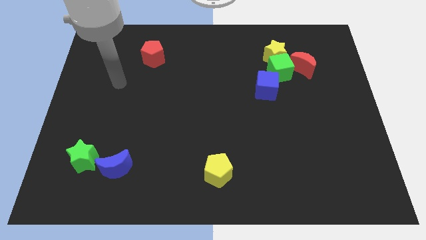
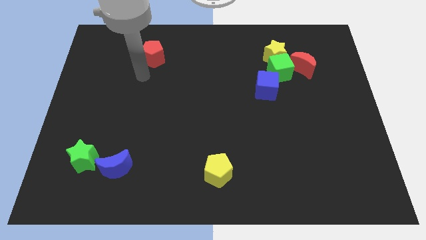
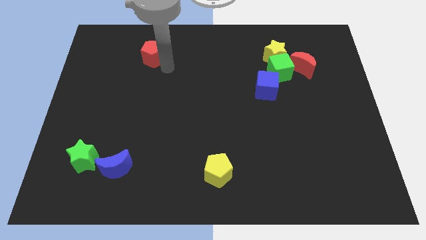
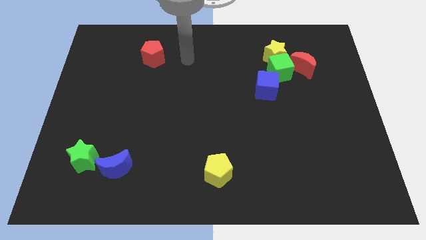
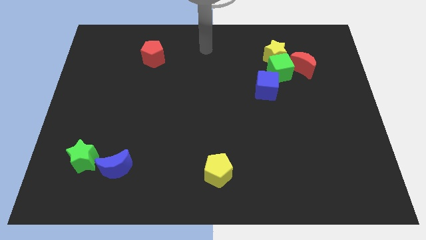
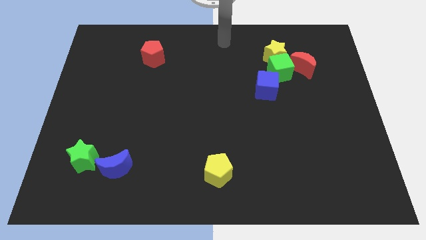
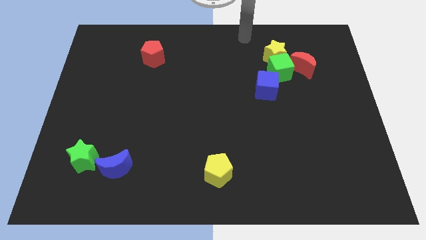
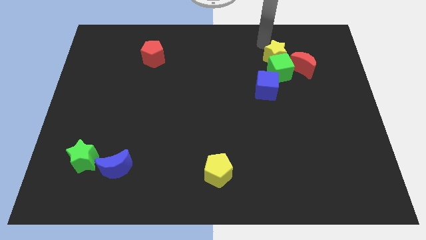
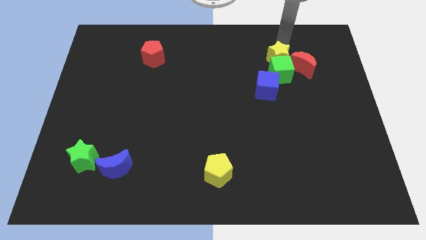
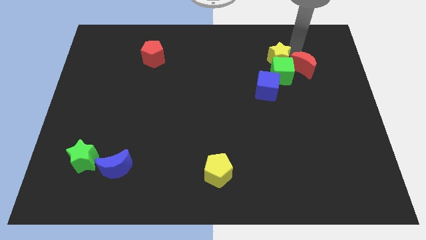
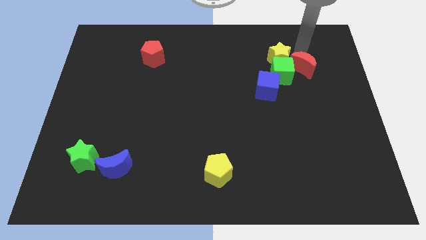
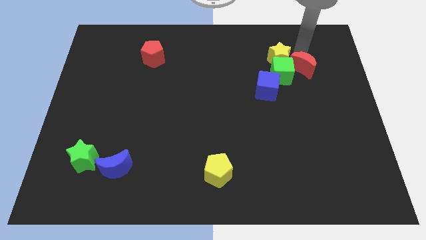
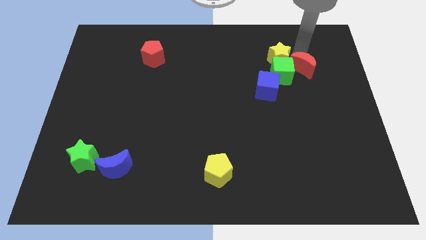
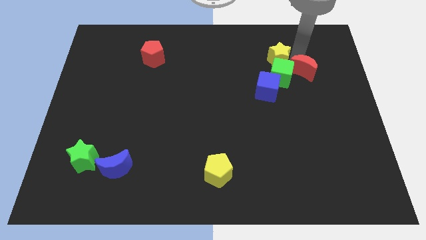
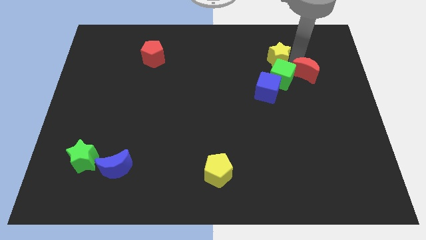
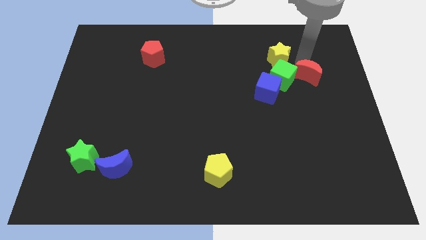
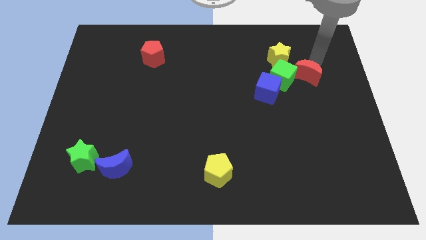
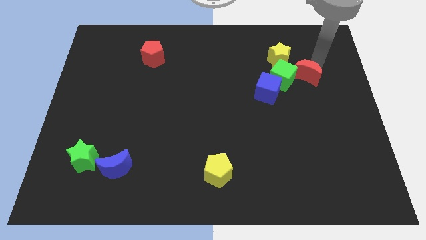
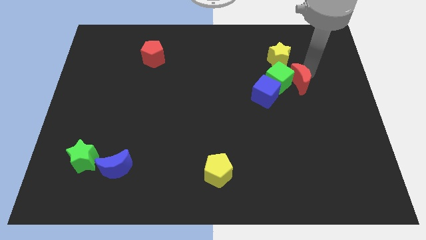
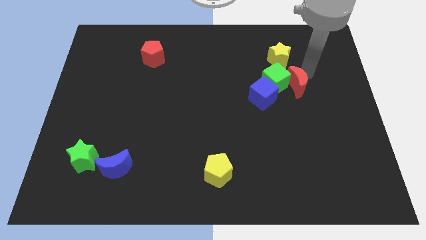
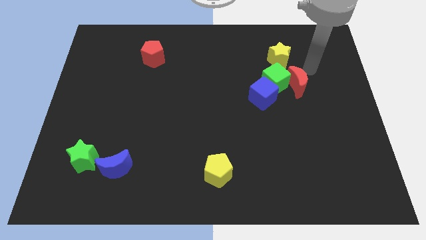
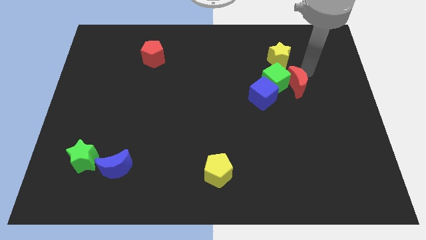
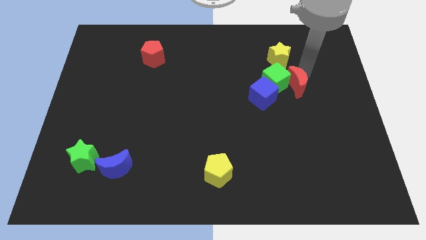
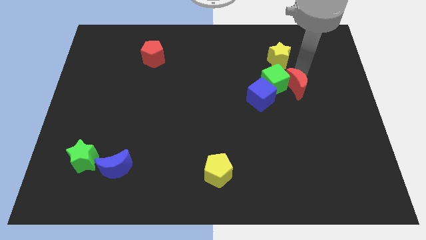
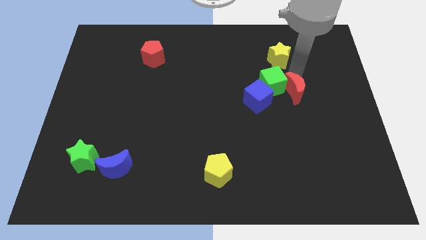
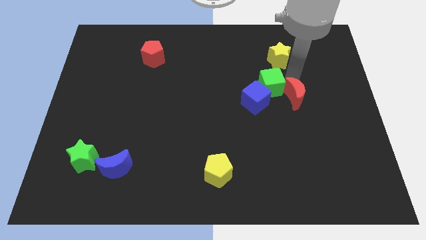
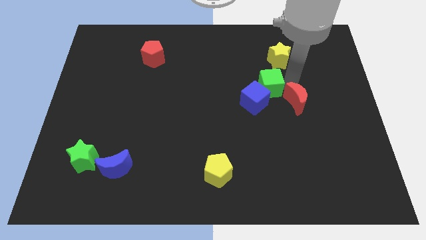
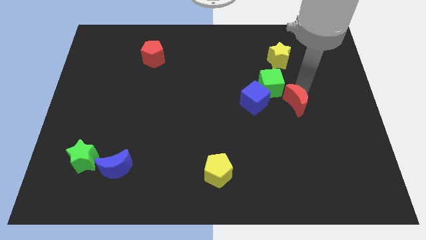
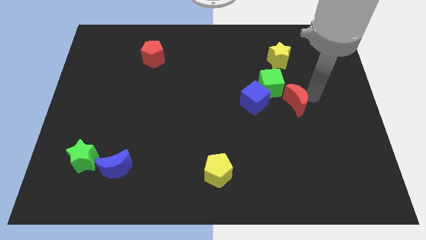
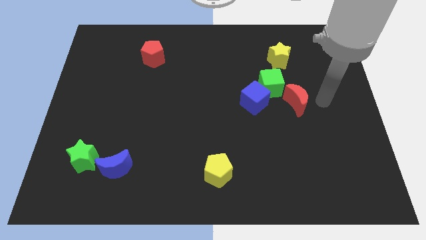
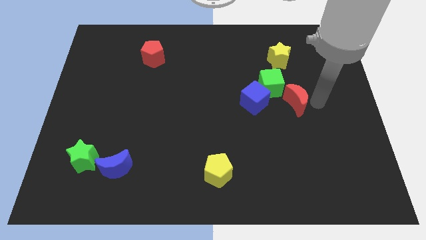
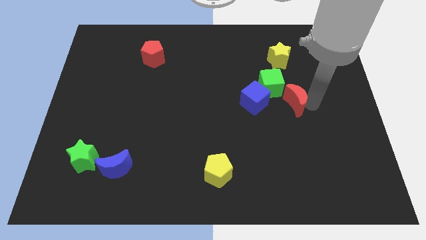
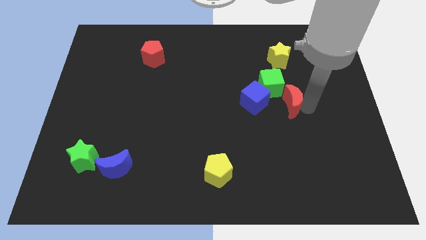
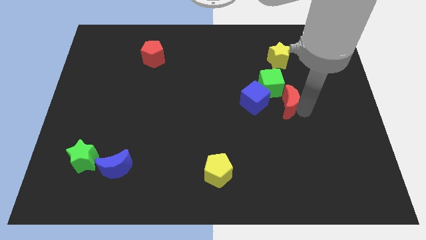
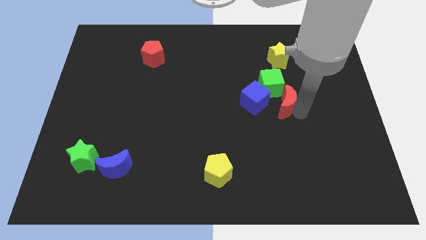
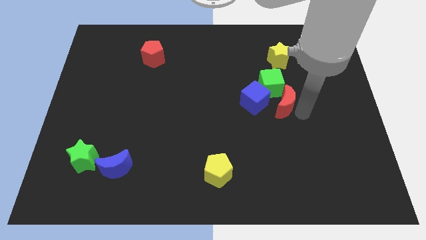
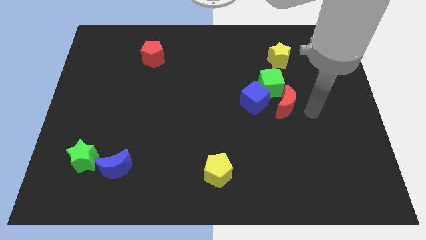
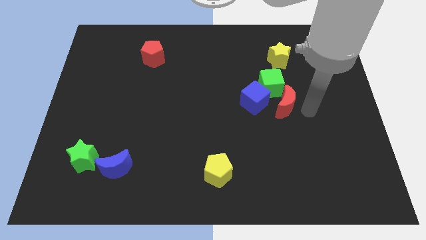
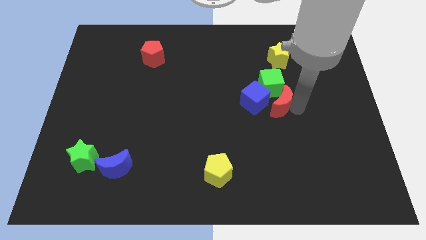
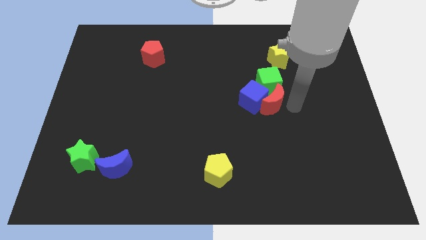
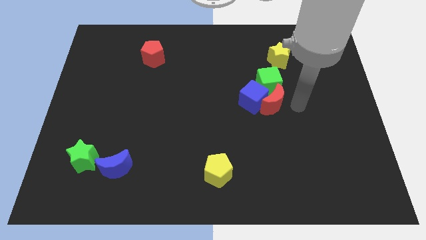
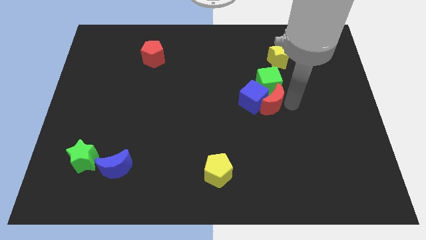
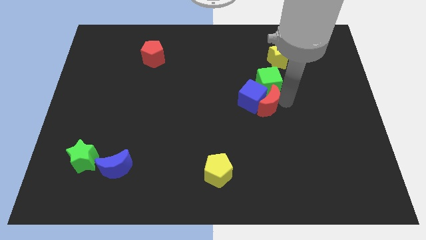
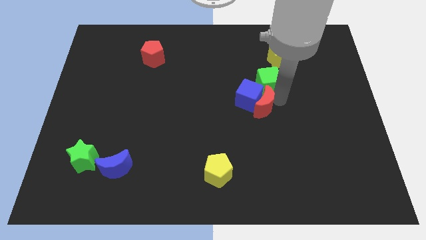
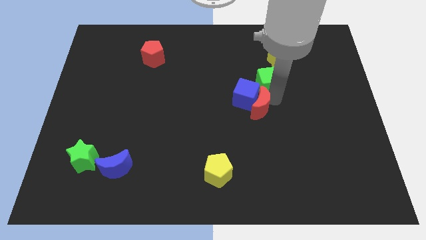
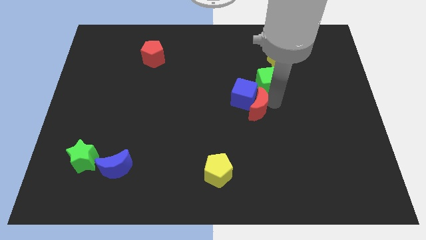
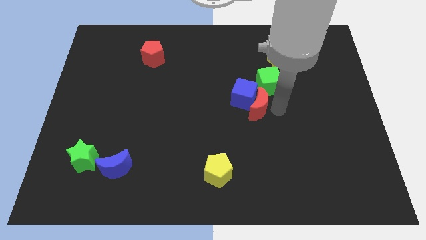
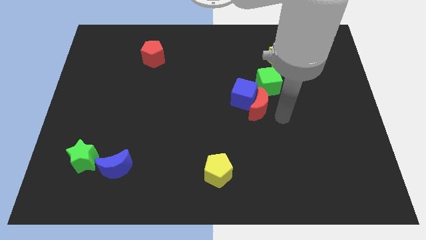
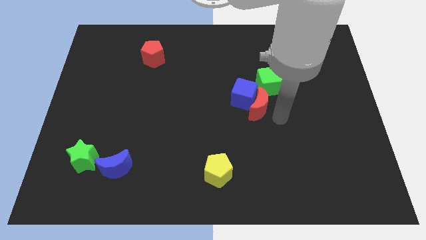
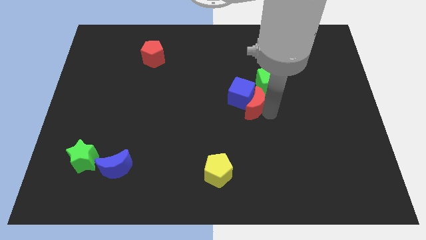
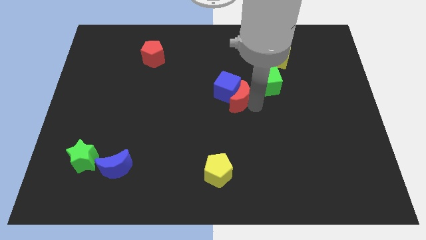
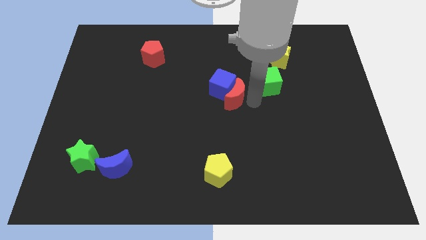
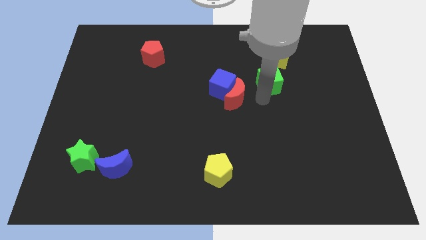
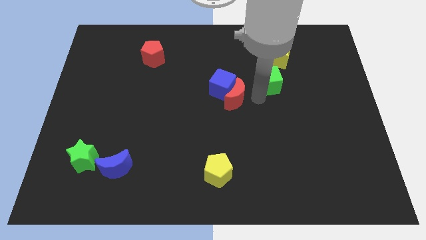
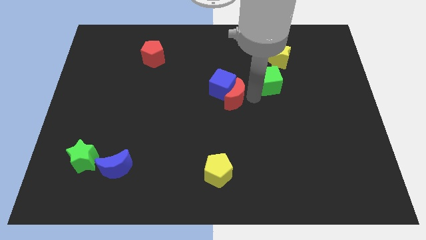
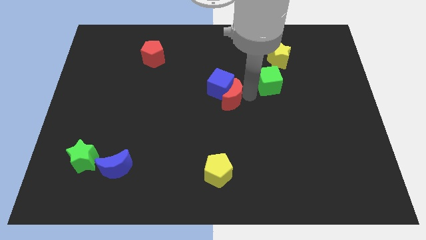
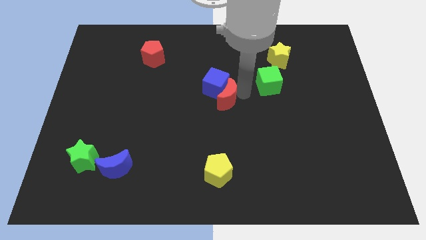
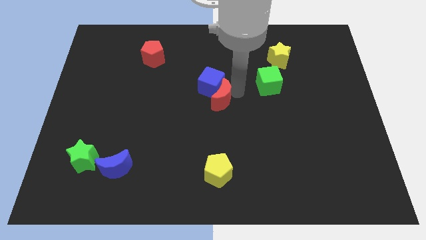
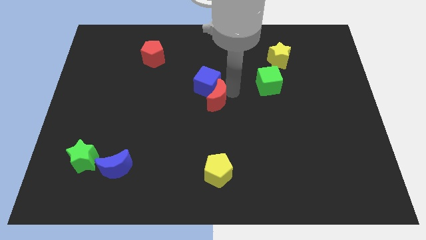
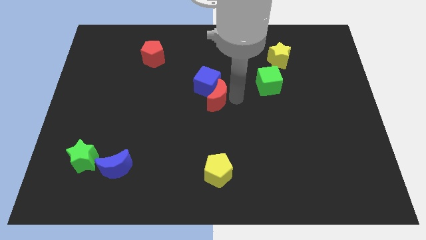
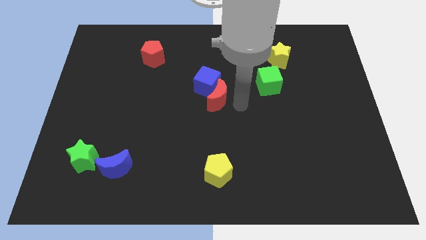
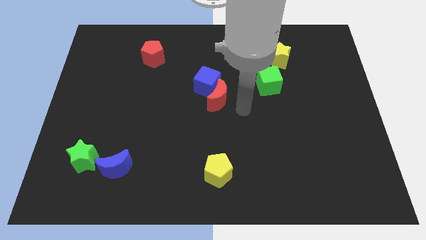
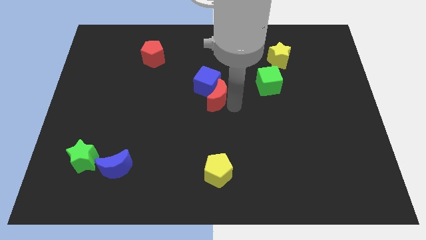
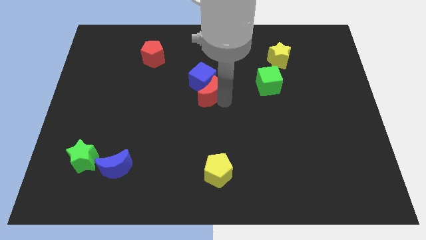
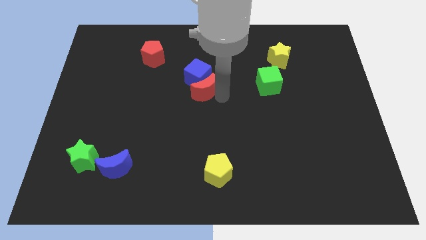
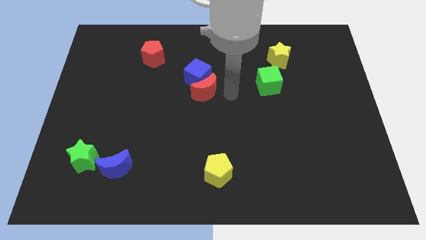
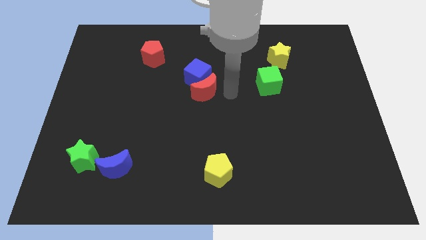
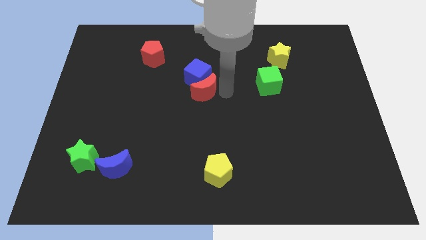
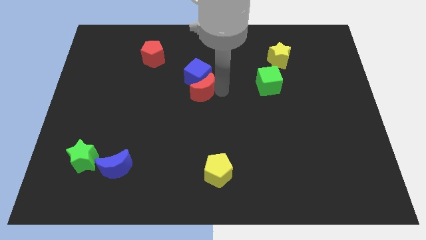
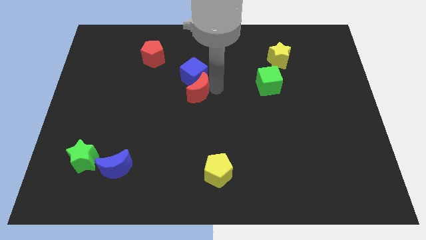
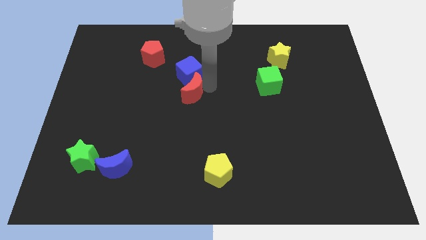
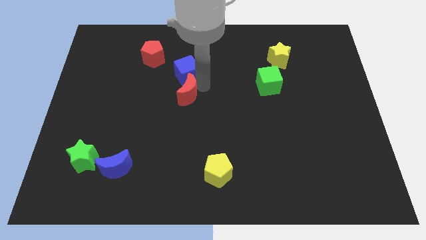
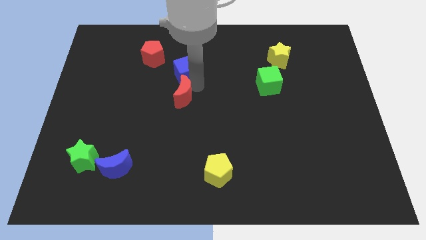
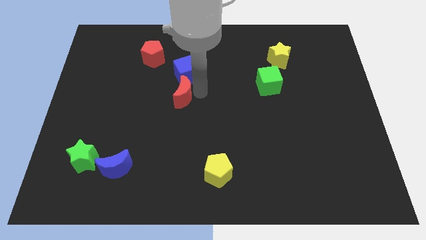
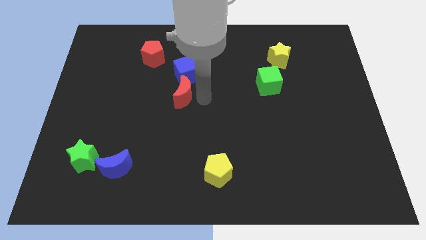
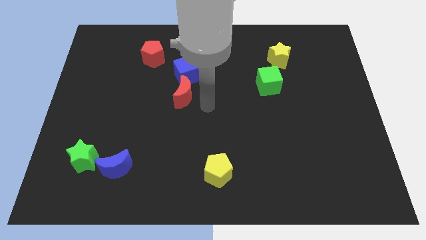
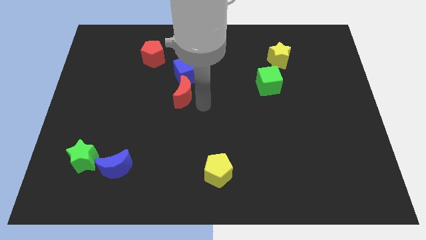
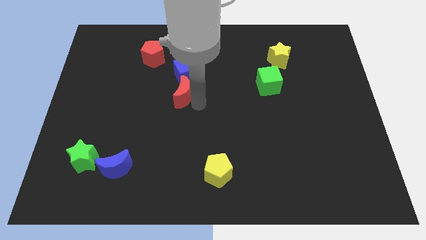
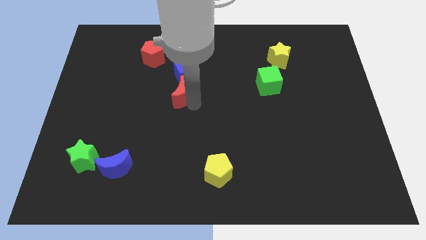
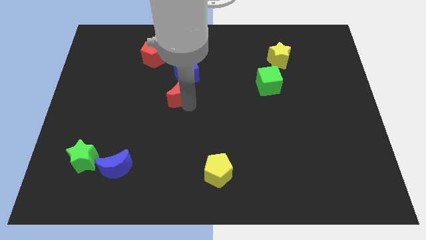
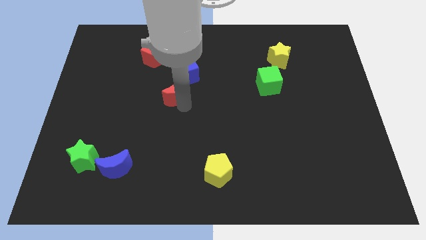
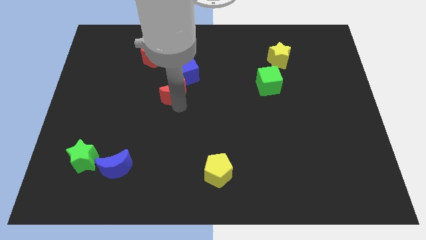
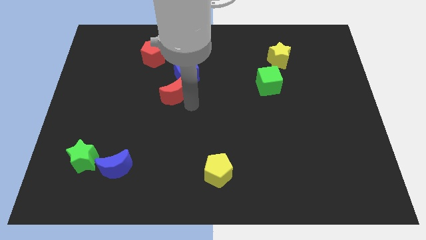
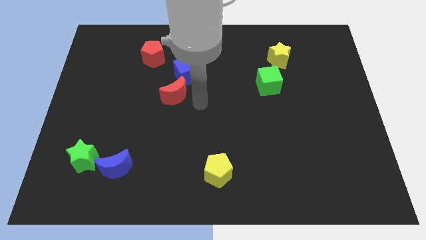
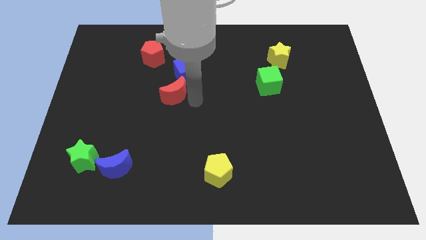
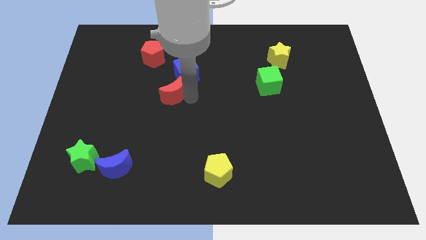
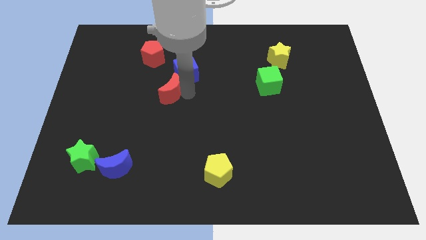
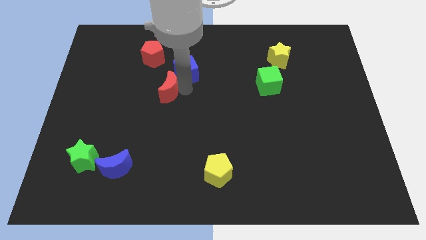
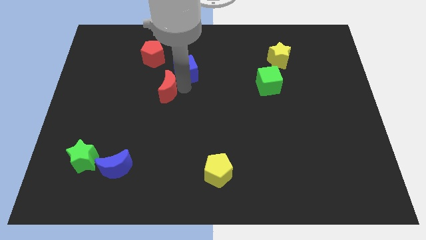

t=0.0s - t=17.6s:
put the red moon to the bottom of the red pentagon
